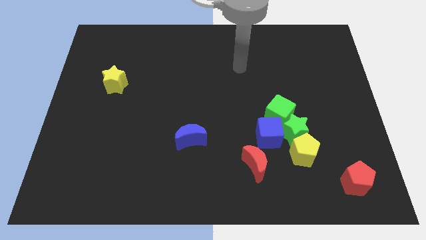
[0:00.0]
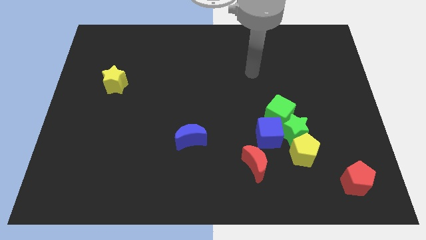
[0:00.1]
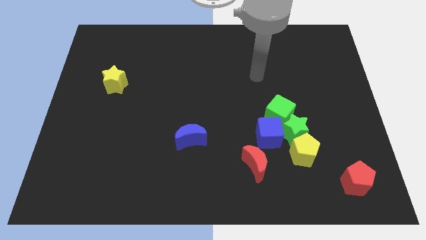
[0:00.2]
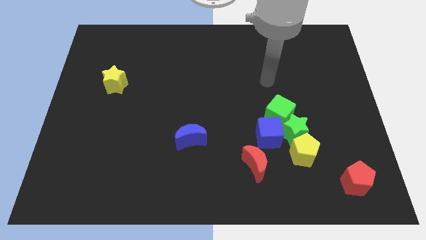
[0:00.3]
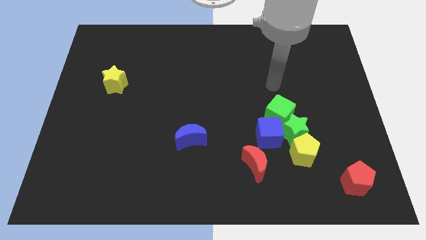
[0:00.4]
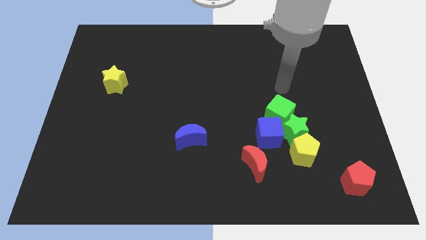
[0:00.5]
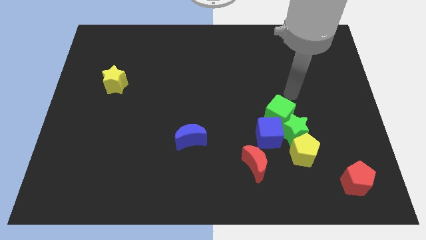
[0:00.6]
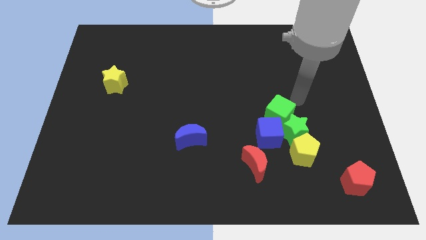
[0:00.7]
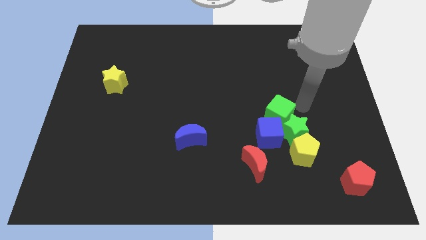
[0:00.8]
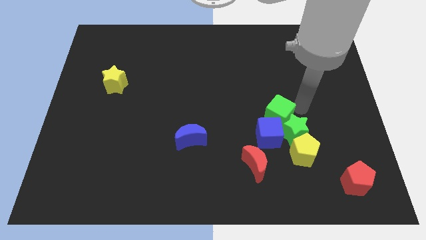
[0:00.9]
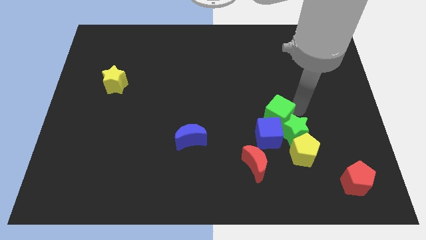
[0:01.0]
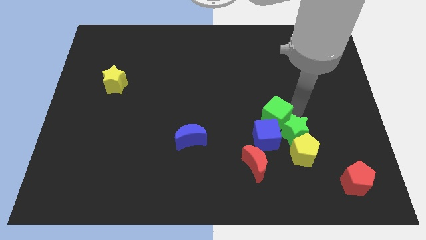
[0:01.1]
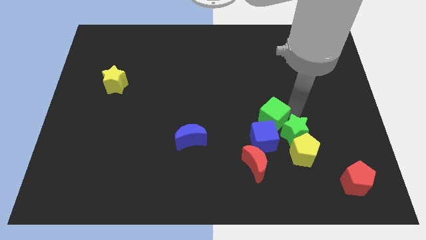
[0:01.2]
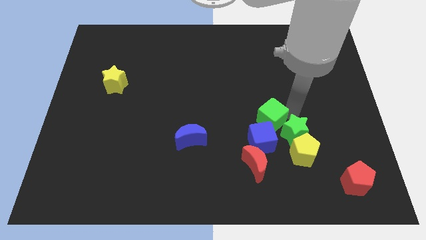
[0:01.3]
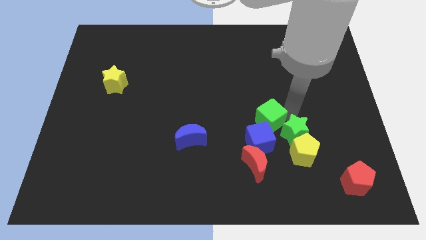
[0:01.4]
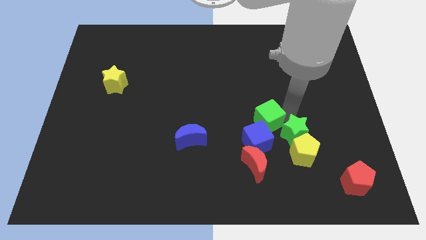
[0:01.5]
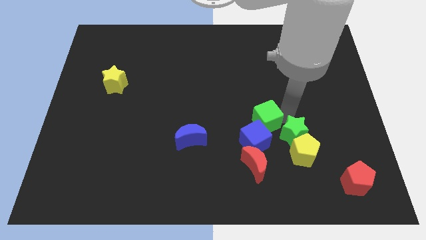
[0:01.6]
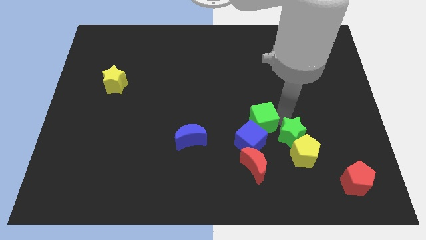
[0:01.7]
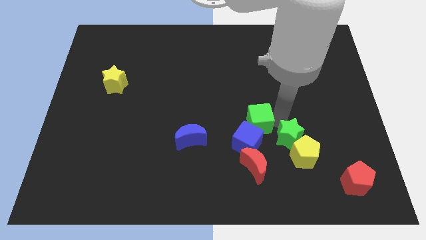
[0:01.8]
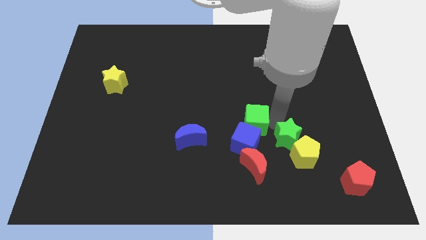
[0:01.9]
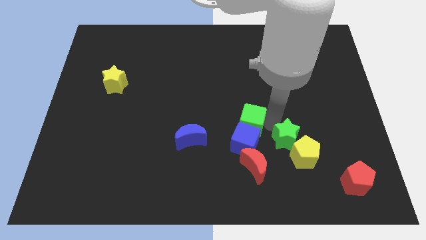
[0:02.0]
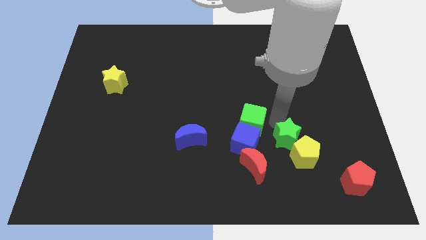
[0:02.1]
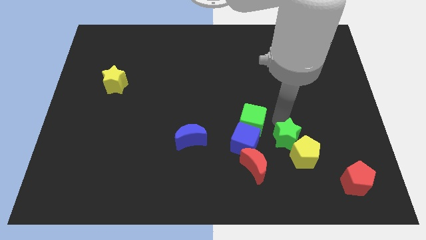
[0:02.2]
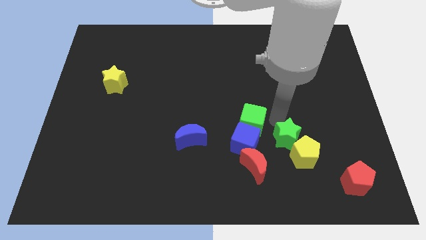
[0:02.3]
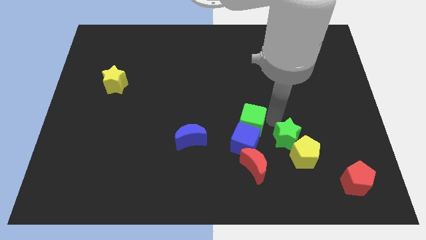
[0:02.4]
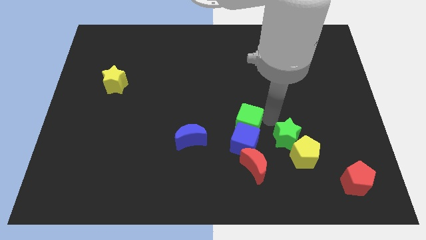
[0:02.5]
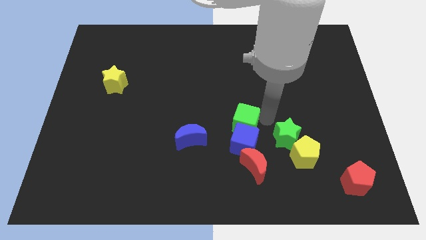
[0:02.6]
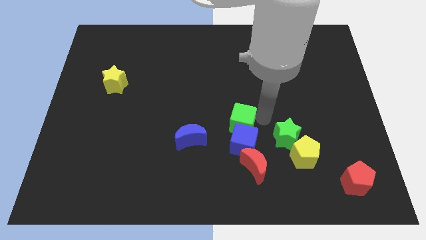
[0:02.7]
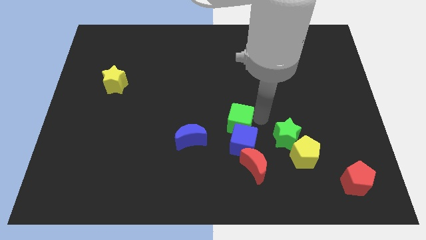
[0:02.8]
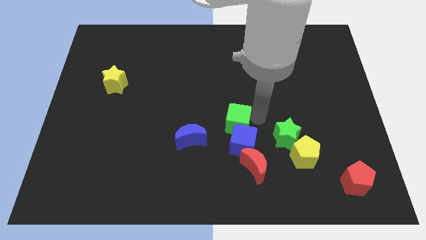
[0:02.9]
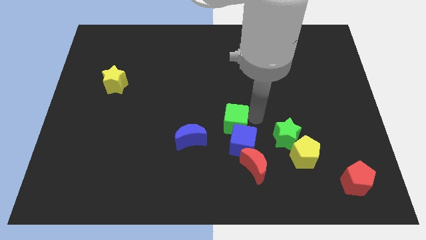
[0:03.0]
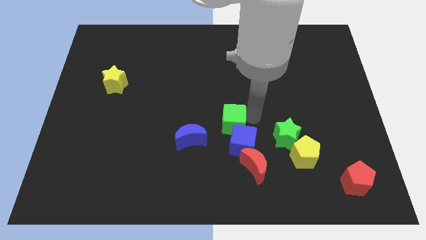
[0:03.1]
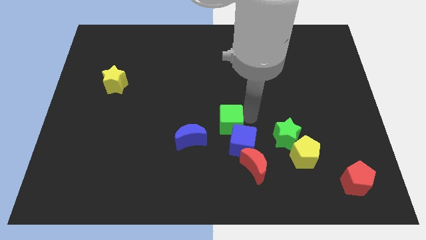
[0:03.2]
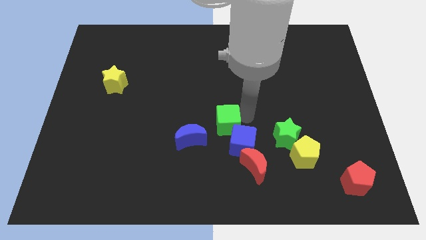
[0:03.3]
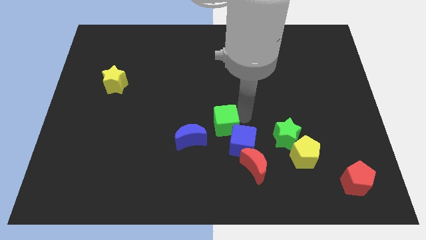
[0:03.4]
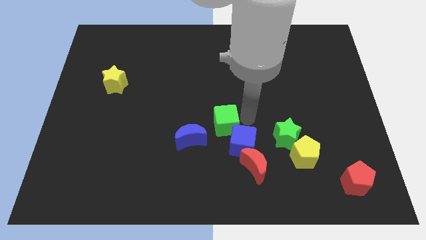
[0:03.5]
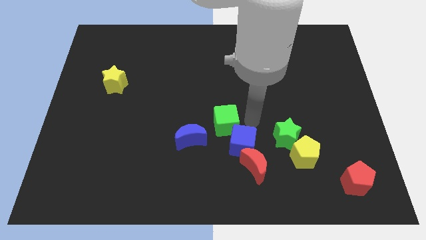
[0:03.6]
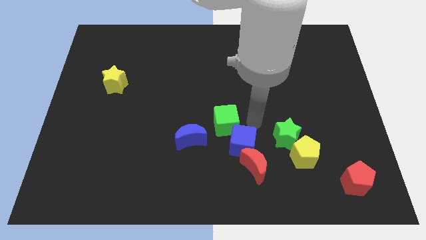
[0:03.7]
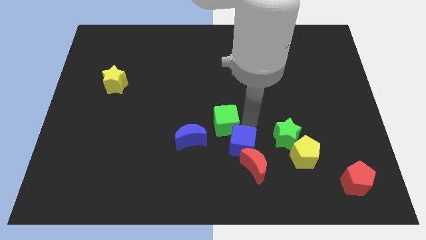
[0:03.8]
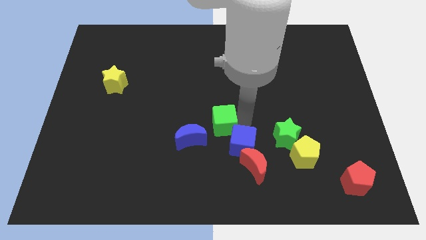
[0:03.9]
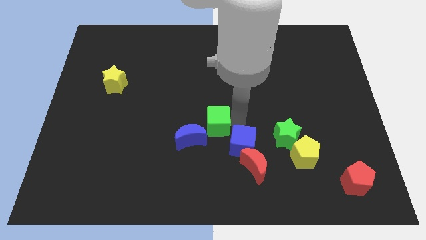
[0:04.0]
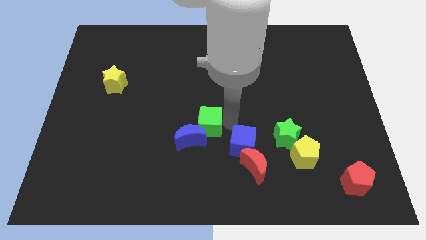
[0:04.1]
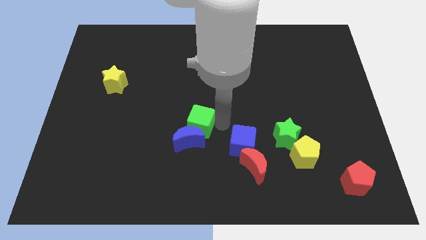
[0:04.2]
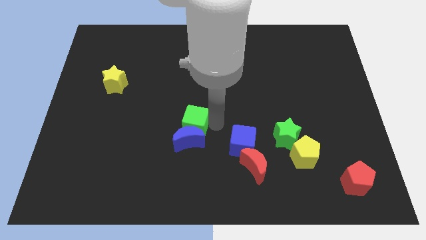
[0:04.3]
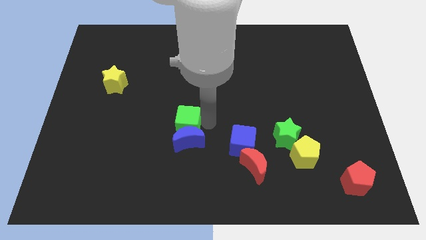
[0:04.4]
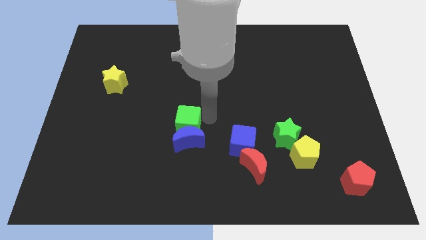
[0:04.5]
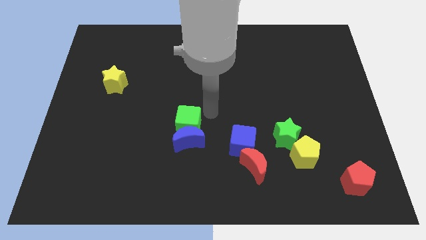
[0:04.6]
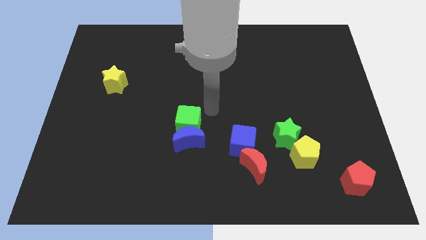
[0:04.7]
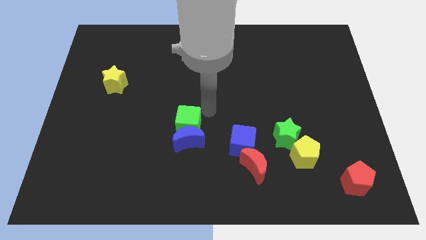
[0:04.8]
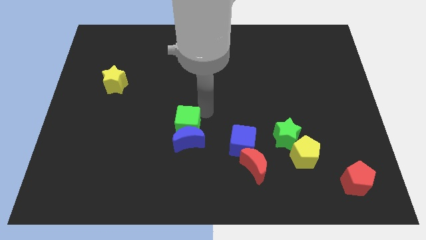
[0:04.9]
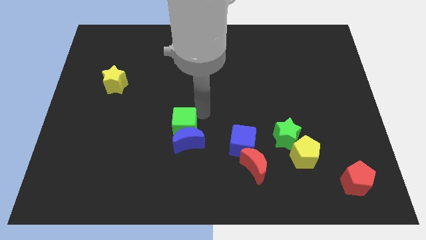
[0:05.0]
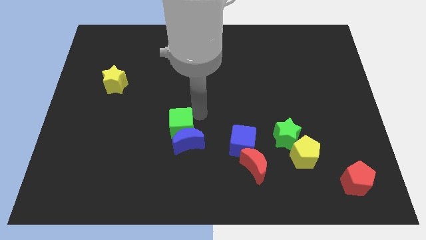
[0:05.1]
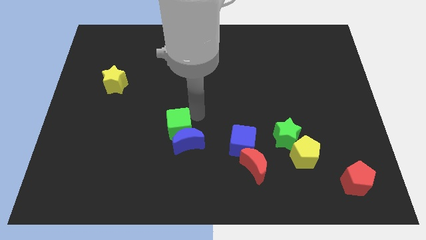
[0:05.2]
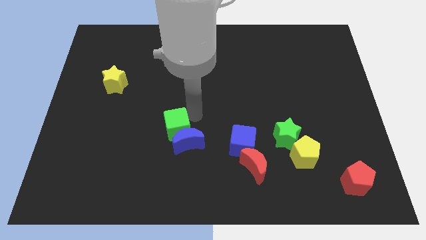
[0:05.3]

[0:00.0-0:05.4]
put the green cube just left of the blue moon

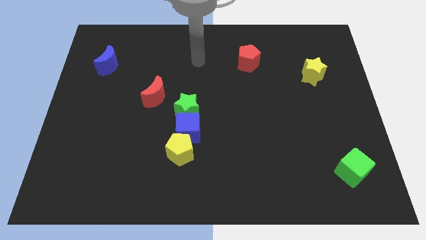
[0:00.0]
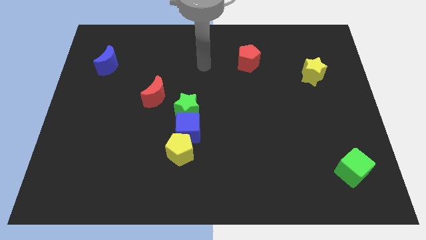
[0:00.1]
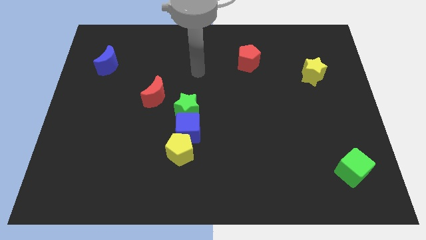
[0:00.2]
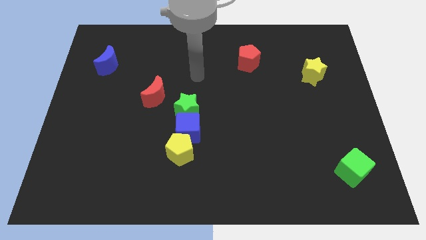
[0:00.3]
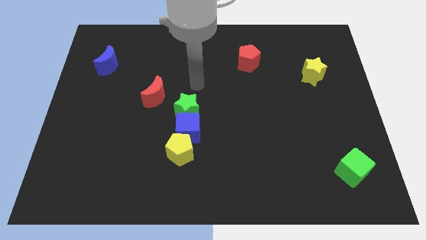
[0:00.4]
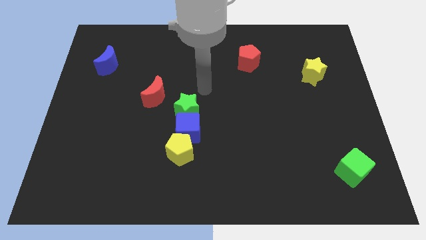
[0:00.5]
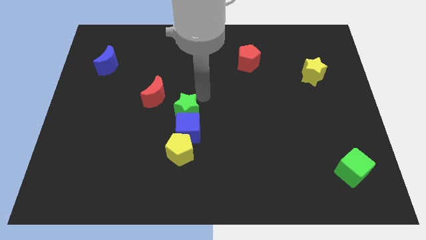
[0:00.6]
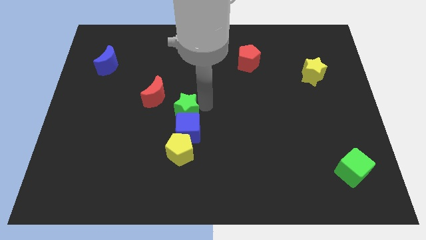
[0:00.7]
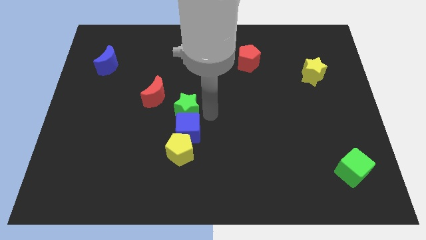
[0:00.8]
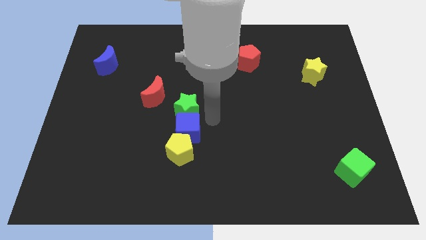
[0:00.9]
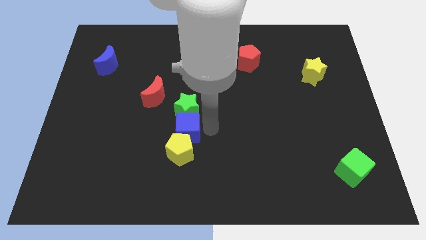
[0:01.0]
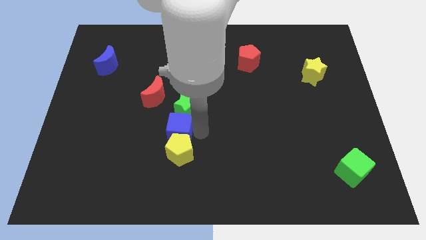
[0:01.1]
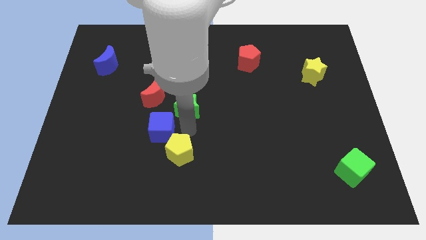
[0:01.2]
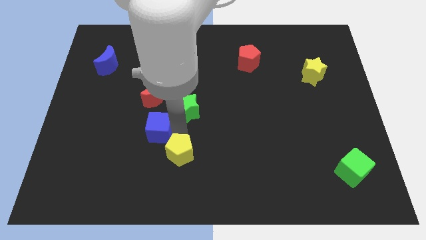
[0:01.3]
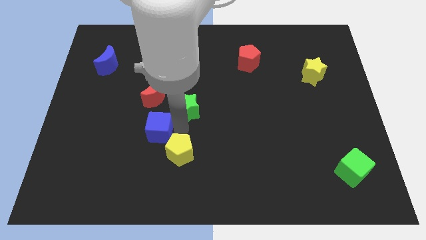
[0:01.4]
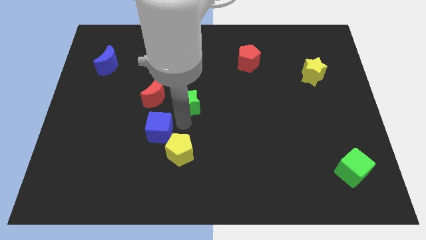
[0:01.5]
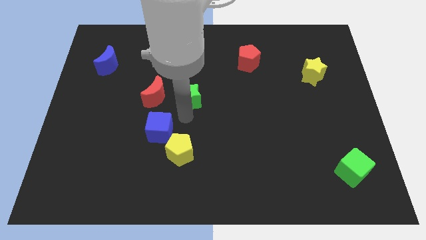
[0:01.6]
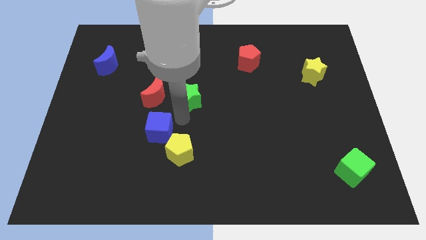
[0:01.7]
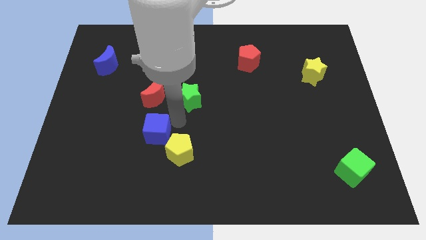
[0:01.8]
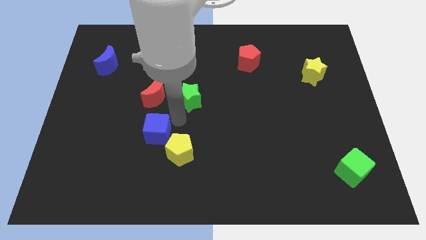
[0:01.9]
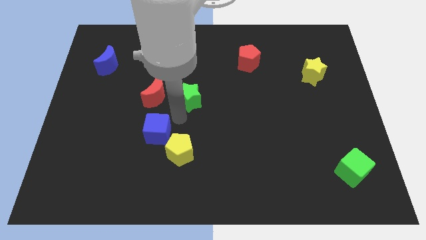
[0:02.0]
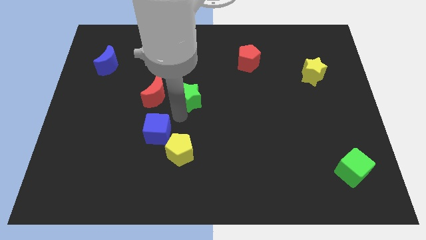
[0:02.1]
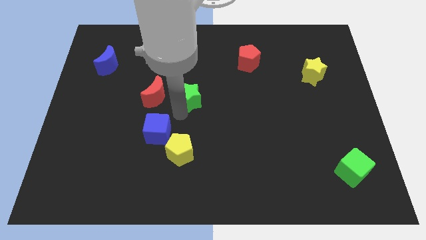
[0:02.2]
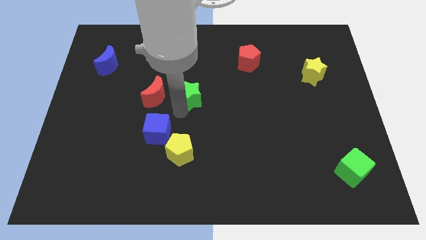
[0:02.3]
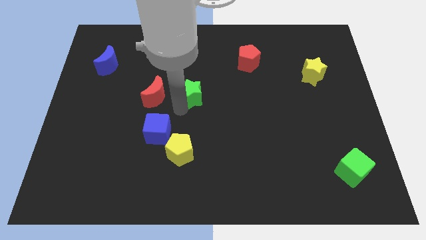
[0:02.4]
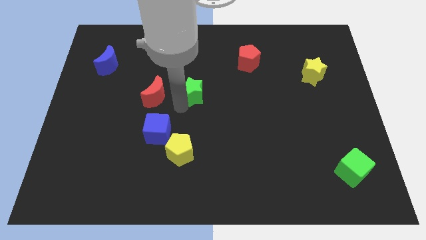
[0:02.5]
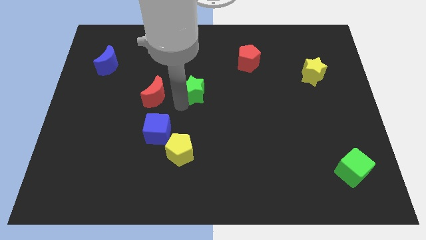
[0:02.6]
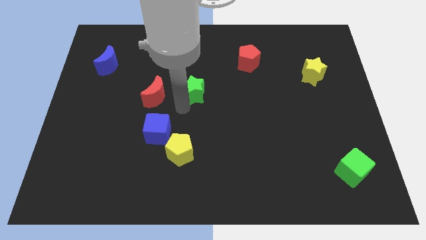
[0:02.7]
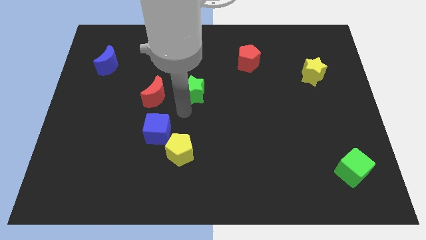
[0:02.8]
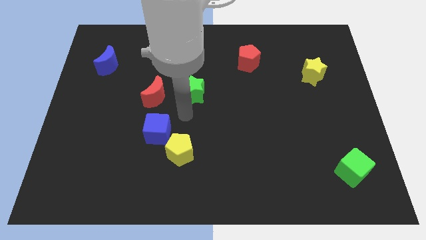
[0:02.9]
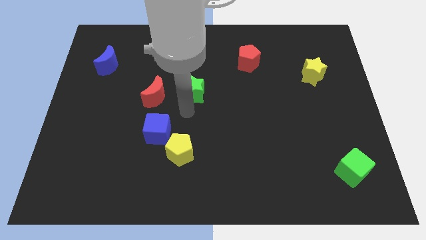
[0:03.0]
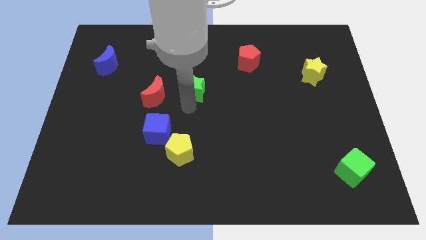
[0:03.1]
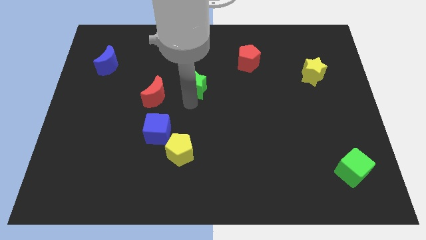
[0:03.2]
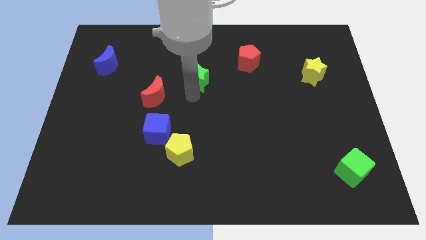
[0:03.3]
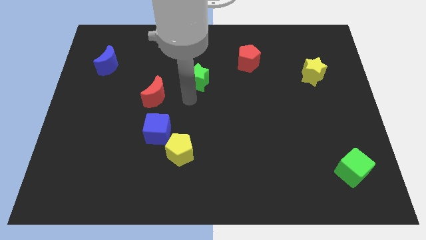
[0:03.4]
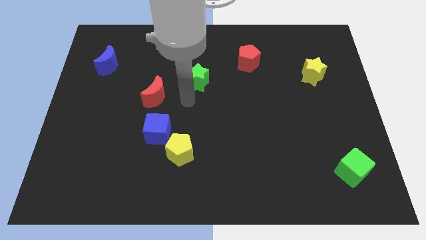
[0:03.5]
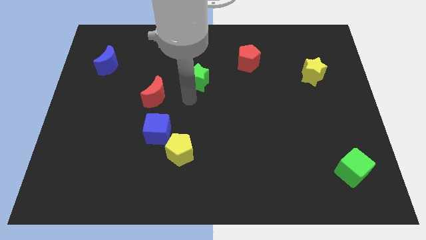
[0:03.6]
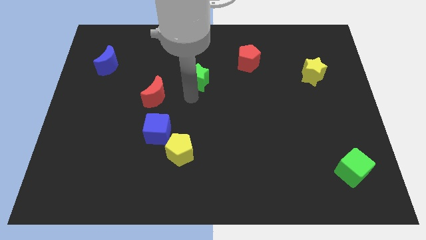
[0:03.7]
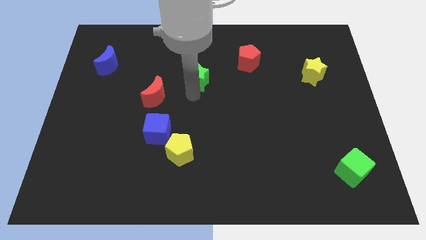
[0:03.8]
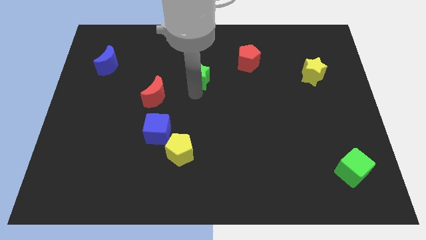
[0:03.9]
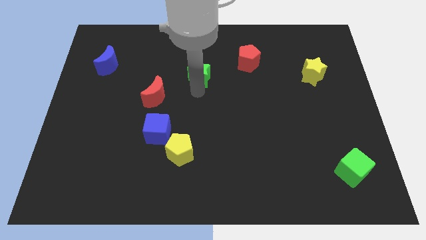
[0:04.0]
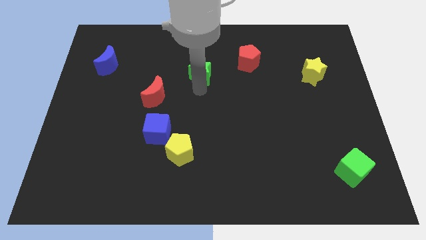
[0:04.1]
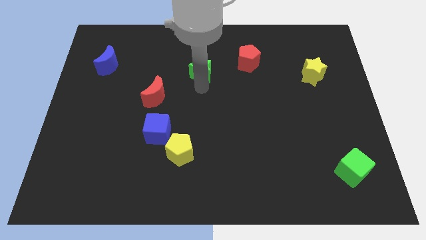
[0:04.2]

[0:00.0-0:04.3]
put the green star just left of the red pentagon
